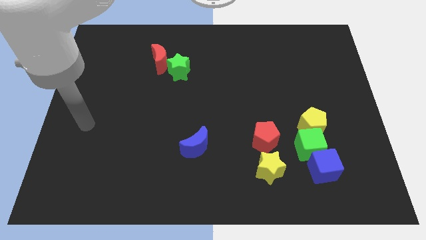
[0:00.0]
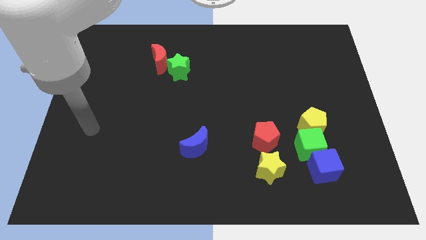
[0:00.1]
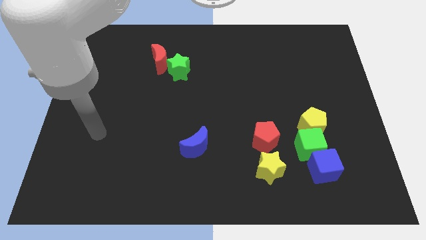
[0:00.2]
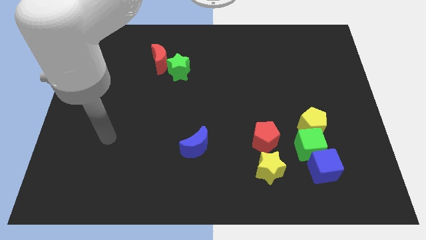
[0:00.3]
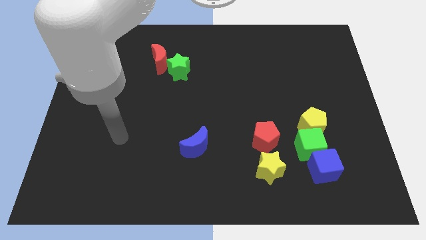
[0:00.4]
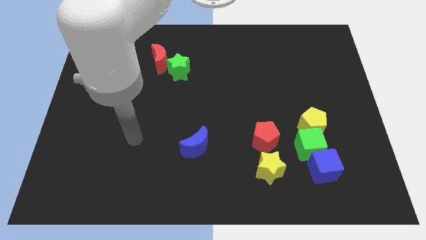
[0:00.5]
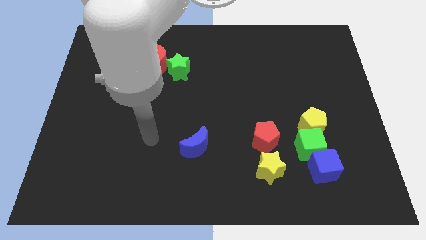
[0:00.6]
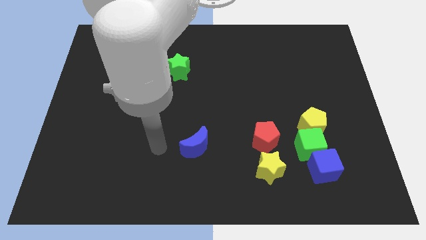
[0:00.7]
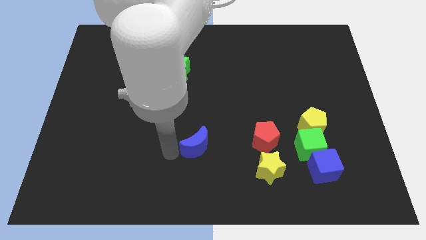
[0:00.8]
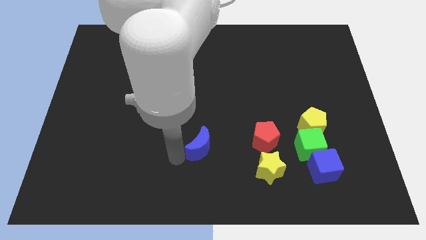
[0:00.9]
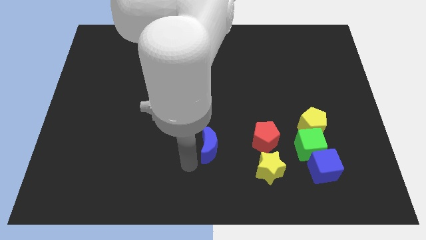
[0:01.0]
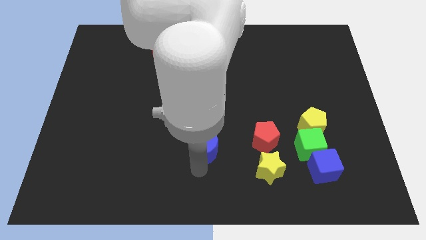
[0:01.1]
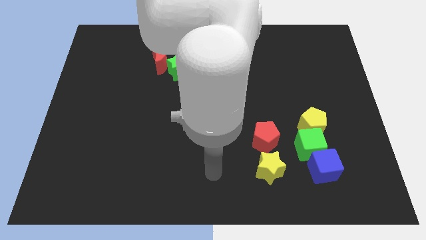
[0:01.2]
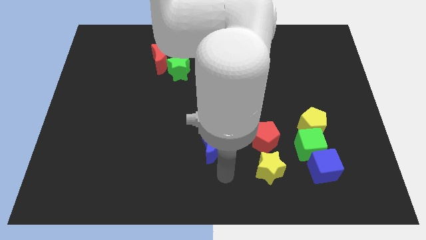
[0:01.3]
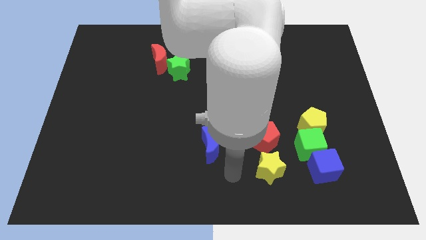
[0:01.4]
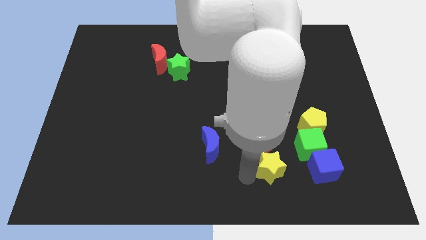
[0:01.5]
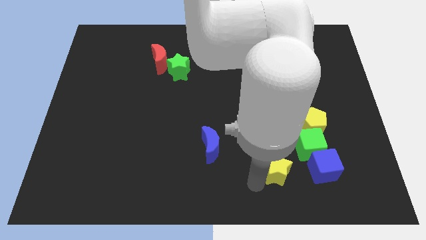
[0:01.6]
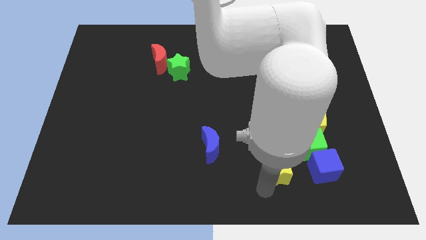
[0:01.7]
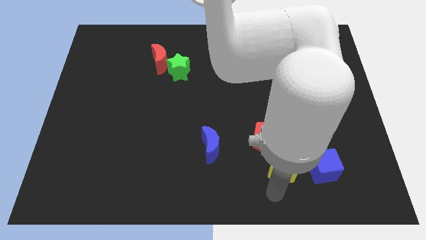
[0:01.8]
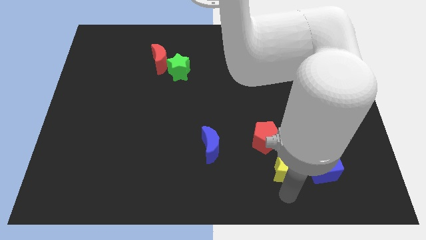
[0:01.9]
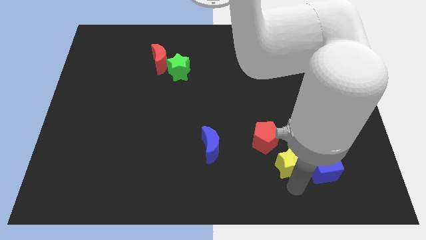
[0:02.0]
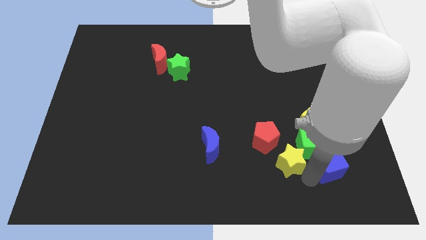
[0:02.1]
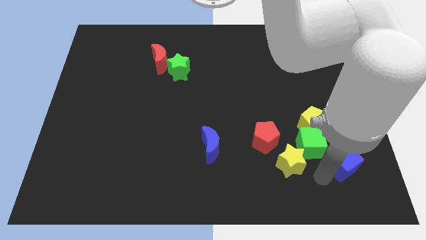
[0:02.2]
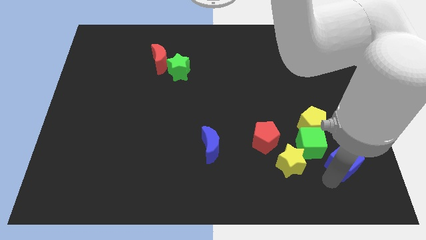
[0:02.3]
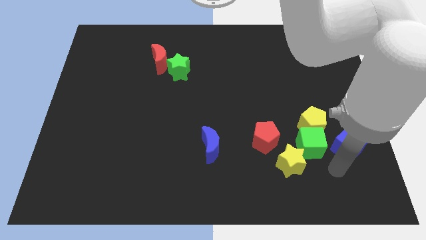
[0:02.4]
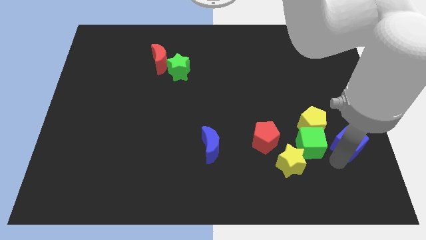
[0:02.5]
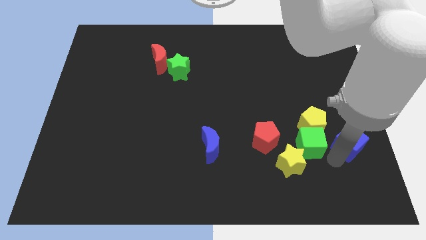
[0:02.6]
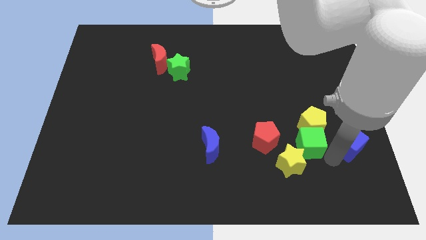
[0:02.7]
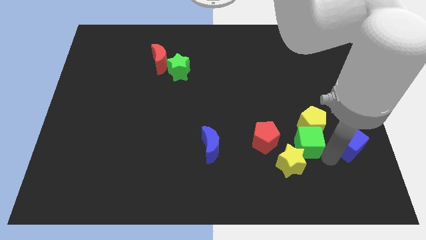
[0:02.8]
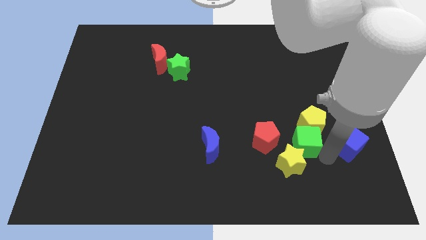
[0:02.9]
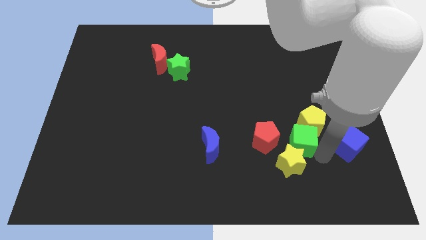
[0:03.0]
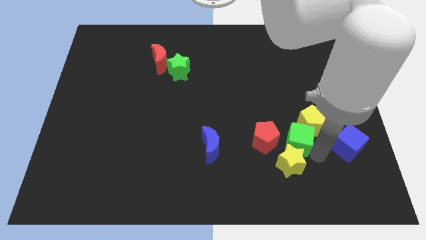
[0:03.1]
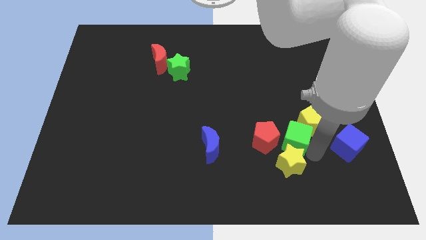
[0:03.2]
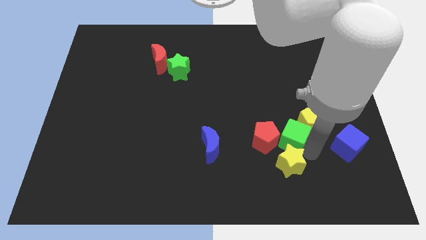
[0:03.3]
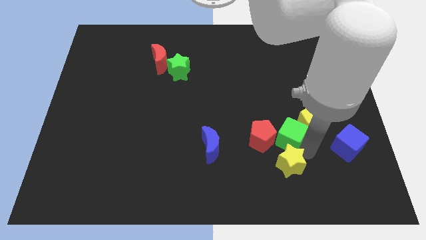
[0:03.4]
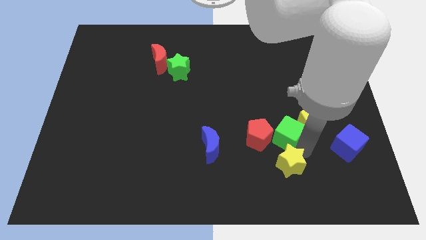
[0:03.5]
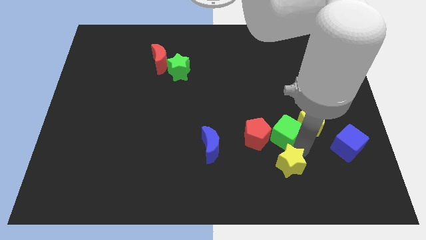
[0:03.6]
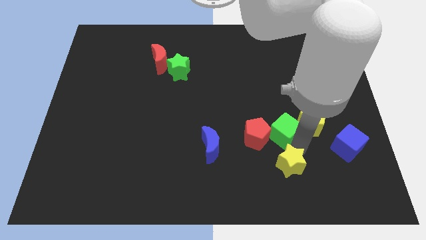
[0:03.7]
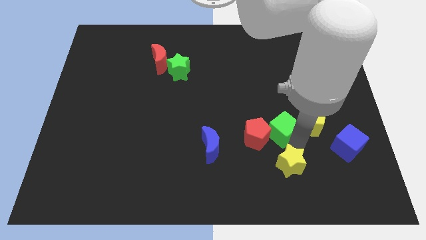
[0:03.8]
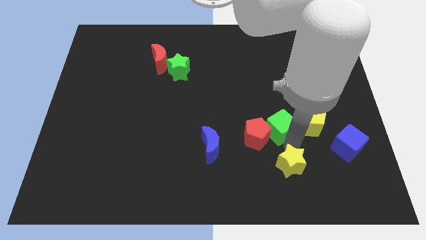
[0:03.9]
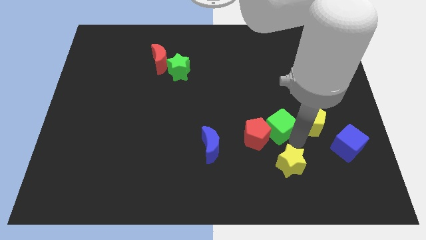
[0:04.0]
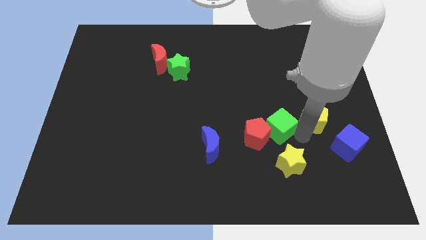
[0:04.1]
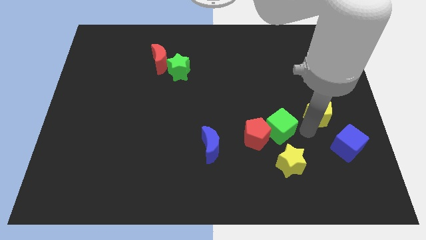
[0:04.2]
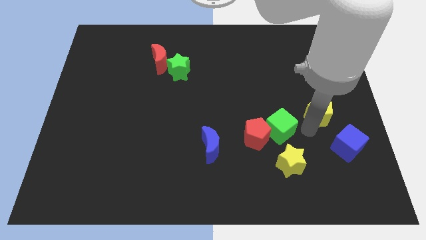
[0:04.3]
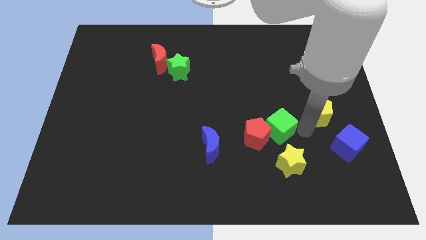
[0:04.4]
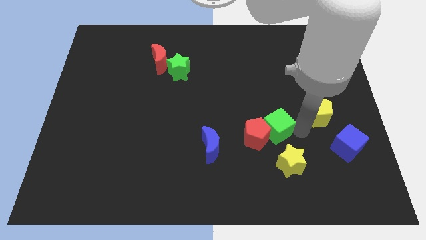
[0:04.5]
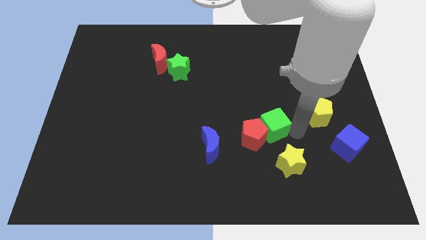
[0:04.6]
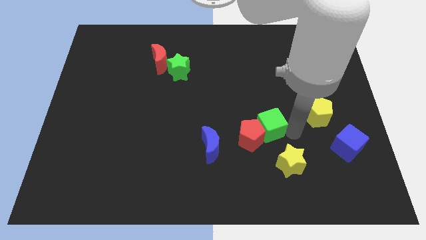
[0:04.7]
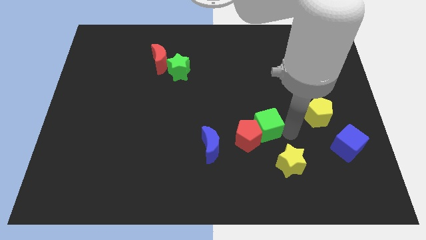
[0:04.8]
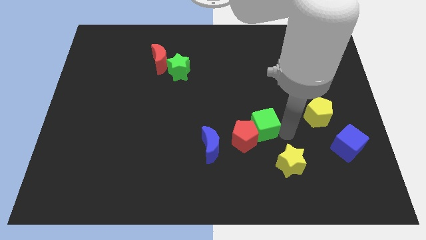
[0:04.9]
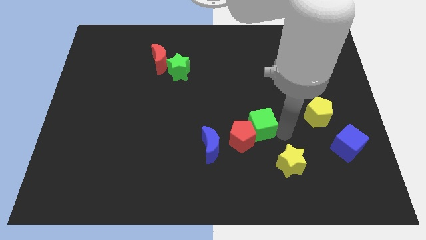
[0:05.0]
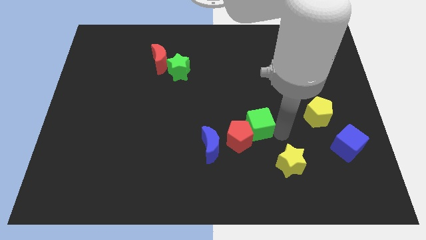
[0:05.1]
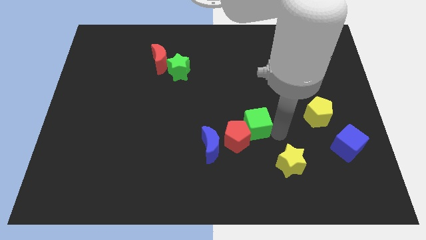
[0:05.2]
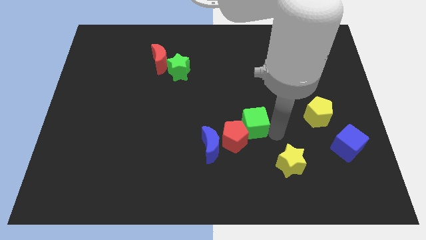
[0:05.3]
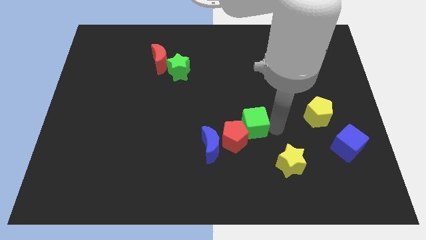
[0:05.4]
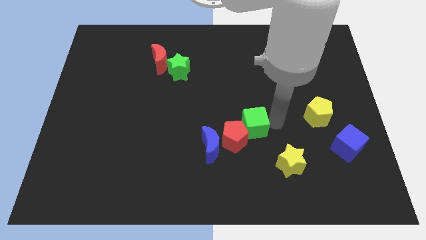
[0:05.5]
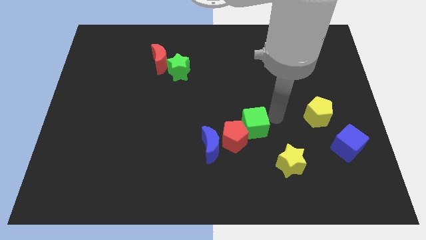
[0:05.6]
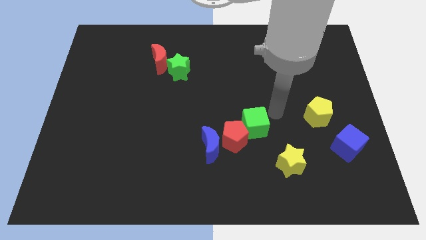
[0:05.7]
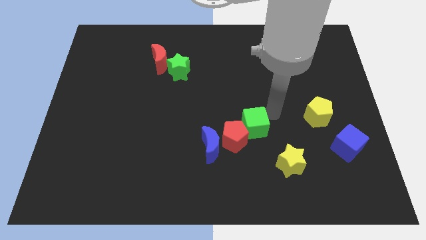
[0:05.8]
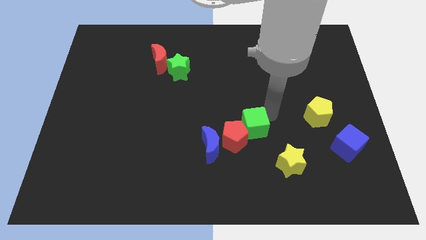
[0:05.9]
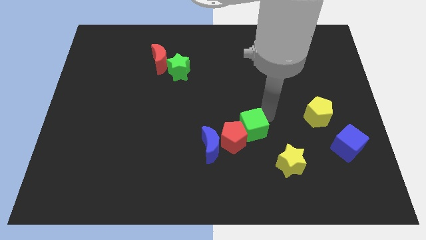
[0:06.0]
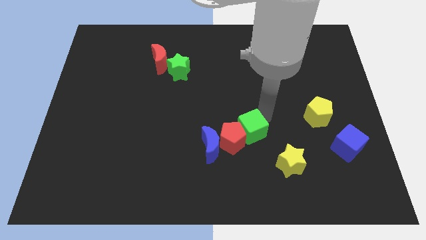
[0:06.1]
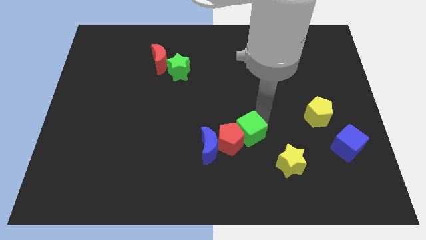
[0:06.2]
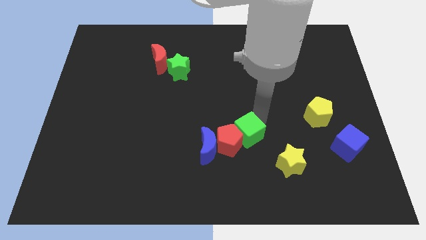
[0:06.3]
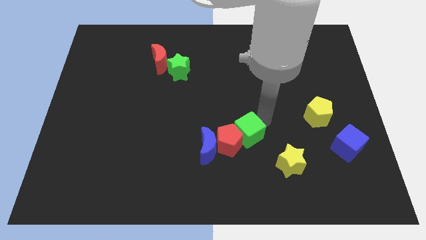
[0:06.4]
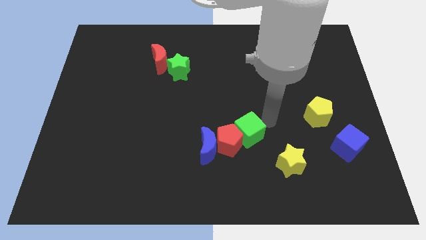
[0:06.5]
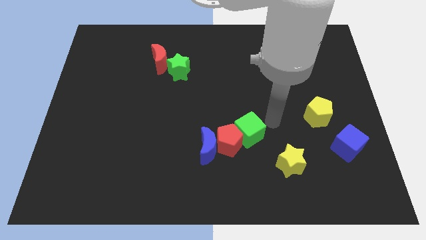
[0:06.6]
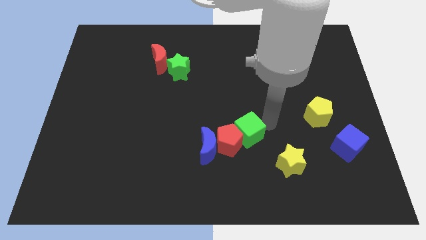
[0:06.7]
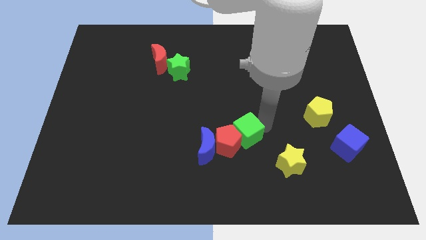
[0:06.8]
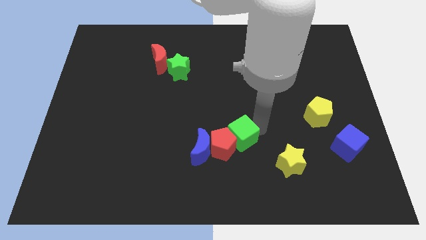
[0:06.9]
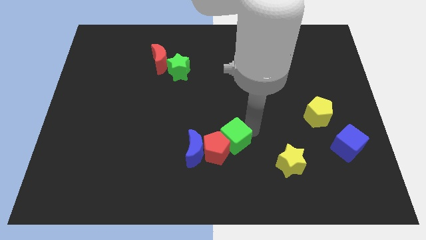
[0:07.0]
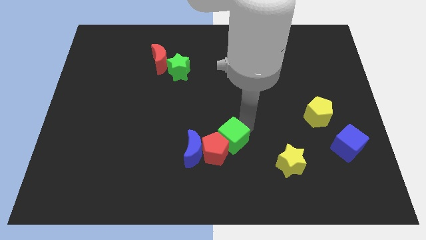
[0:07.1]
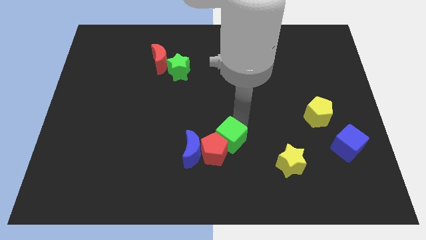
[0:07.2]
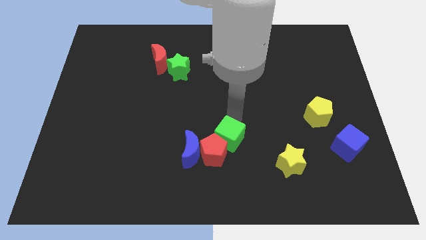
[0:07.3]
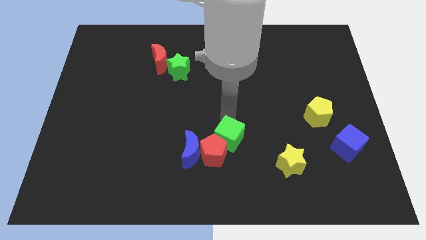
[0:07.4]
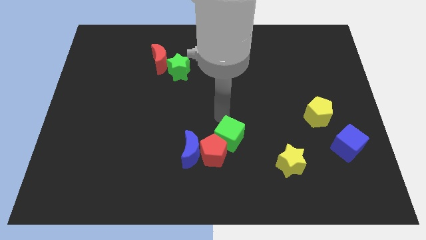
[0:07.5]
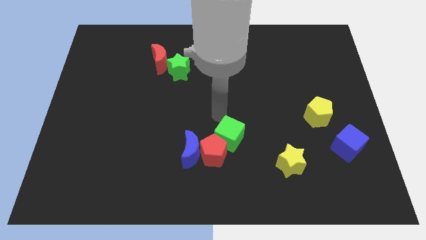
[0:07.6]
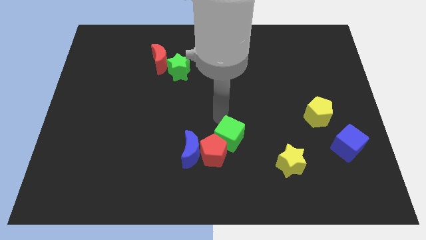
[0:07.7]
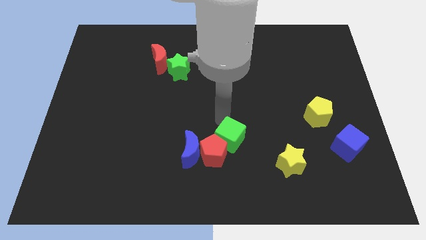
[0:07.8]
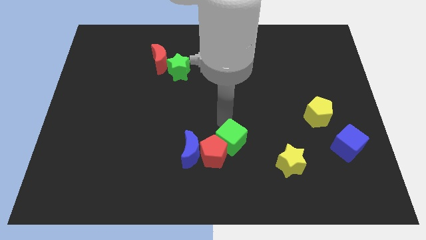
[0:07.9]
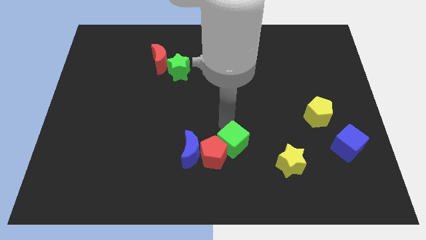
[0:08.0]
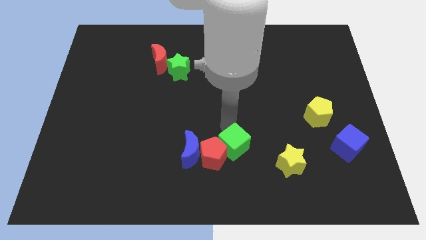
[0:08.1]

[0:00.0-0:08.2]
move the green cube to the left side of the yellow star
